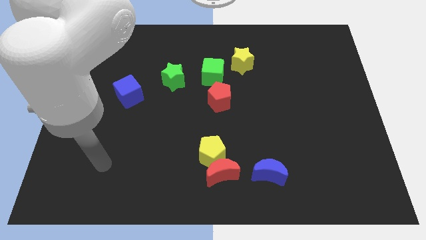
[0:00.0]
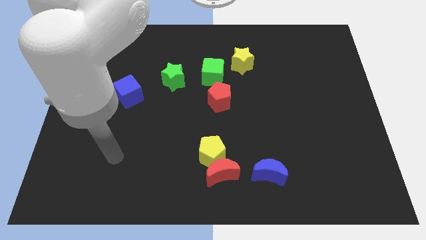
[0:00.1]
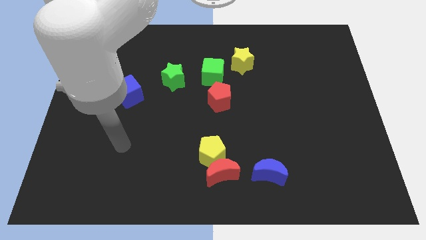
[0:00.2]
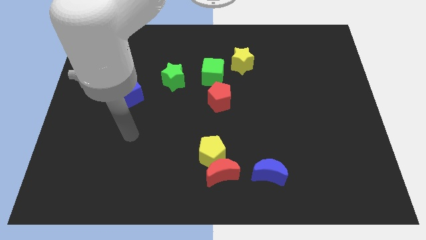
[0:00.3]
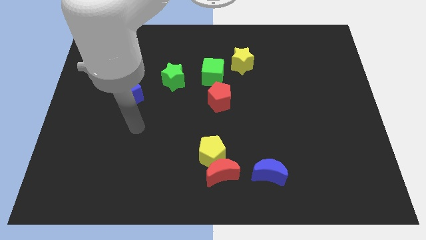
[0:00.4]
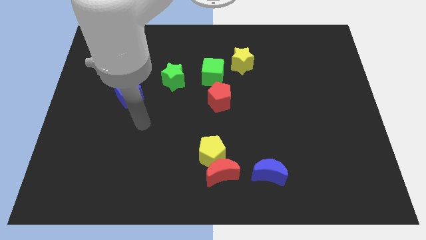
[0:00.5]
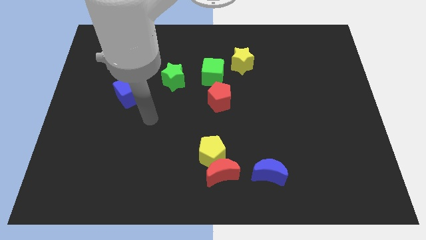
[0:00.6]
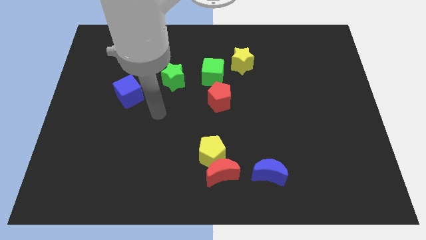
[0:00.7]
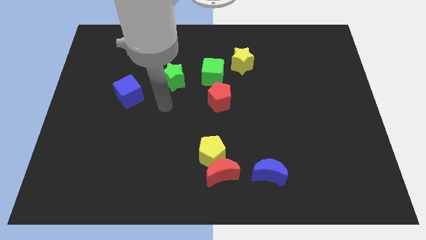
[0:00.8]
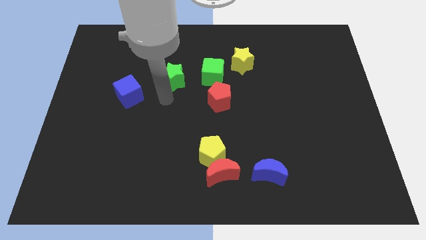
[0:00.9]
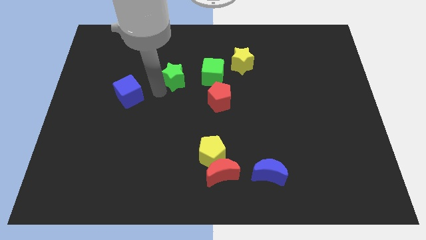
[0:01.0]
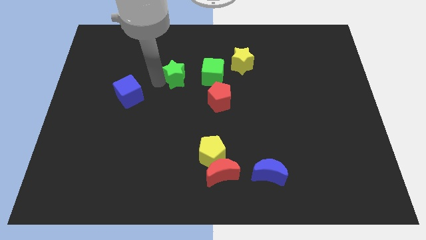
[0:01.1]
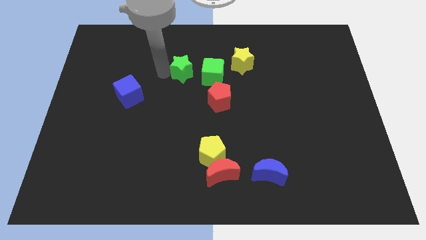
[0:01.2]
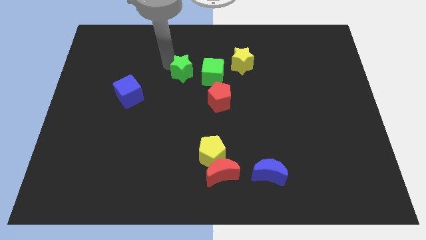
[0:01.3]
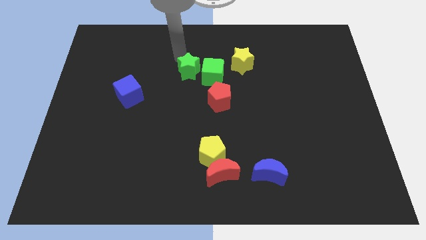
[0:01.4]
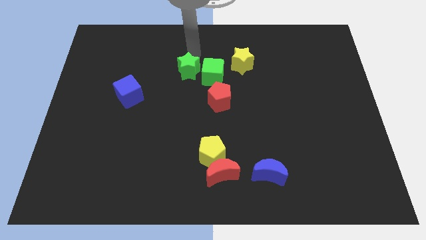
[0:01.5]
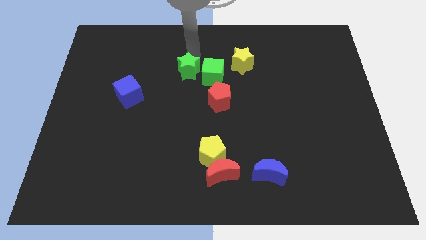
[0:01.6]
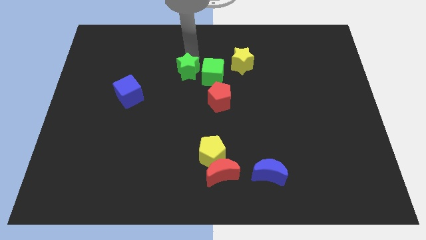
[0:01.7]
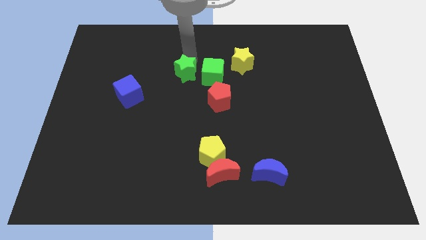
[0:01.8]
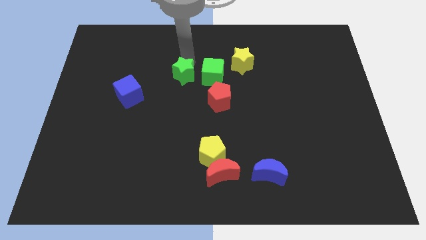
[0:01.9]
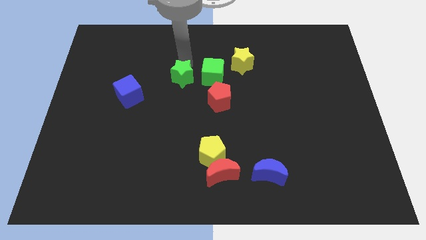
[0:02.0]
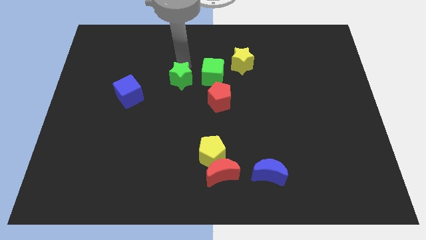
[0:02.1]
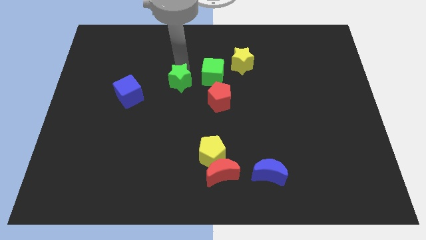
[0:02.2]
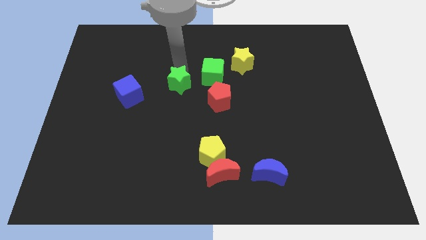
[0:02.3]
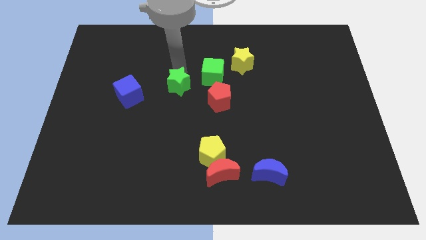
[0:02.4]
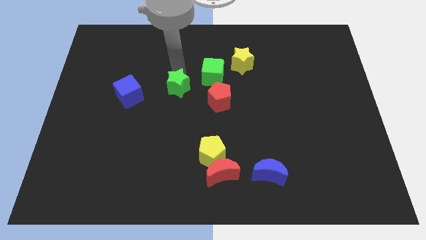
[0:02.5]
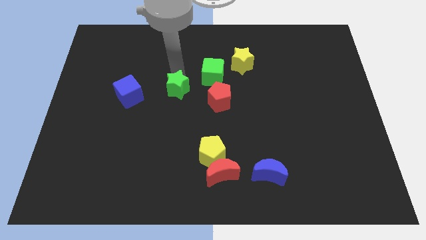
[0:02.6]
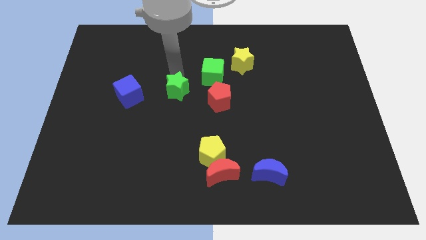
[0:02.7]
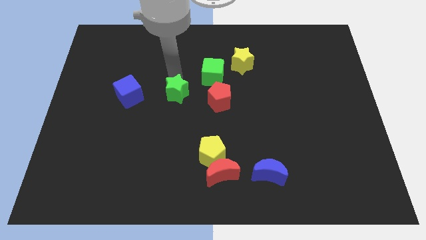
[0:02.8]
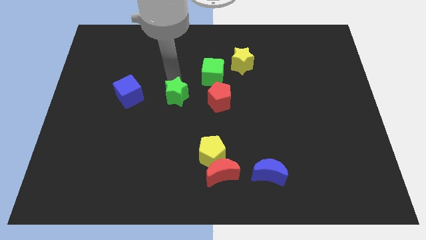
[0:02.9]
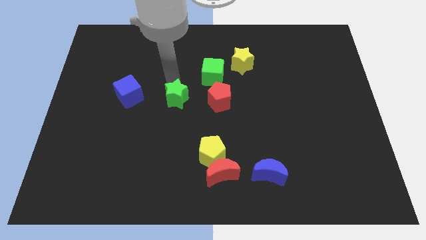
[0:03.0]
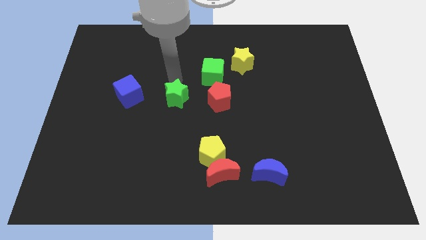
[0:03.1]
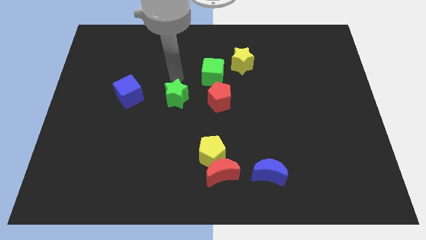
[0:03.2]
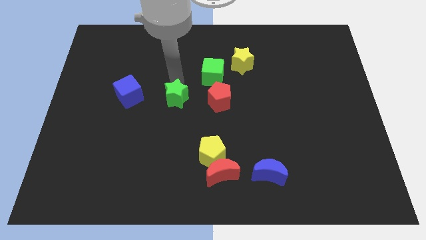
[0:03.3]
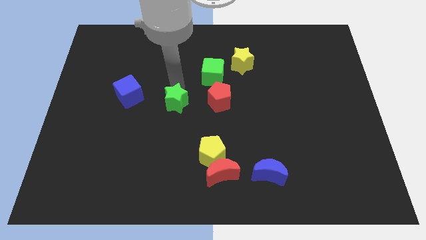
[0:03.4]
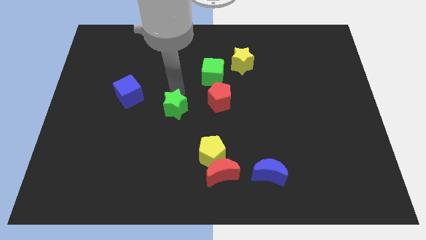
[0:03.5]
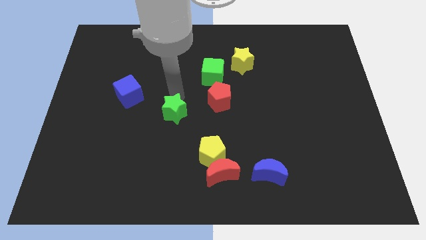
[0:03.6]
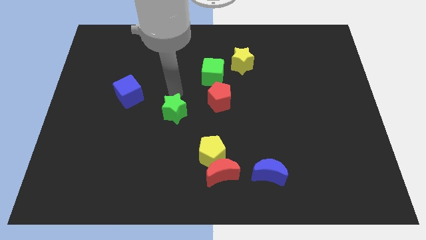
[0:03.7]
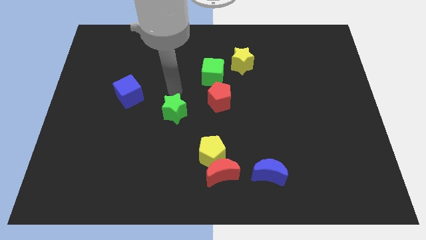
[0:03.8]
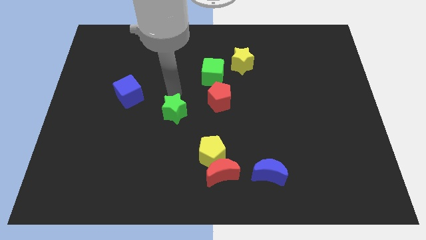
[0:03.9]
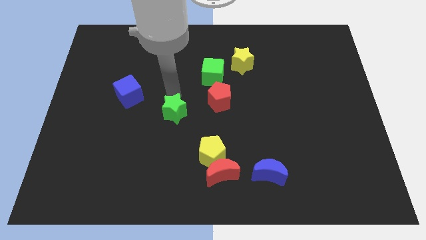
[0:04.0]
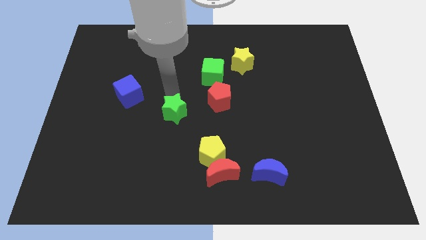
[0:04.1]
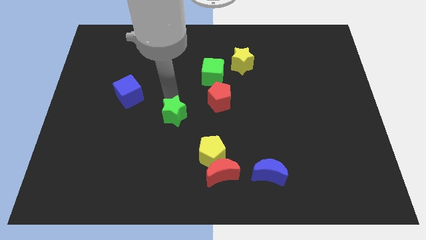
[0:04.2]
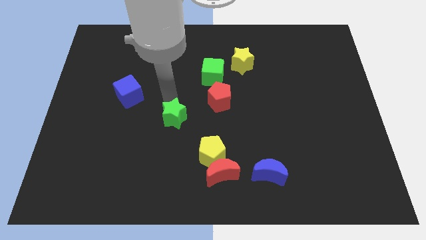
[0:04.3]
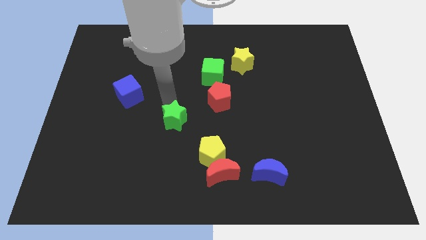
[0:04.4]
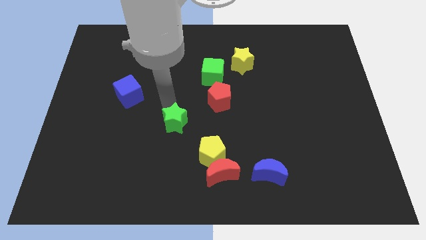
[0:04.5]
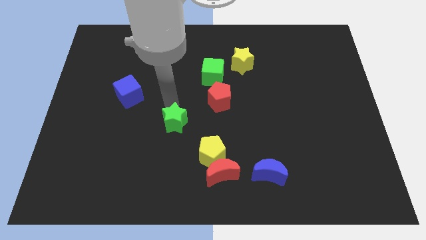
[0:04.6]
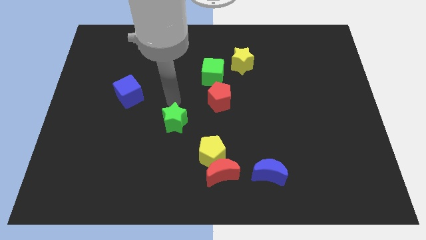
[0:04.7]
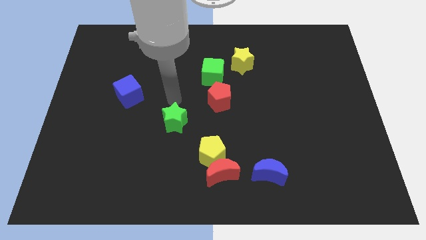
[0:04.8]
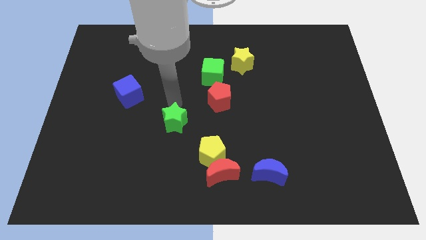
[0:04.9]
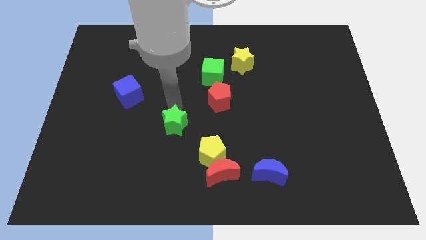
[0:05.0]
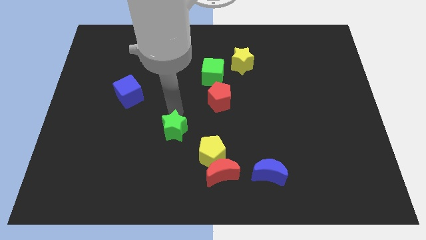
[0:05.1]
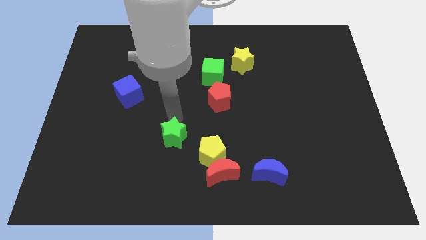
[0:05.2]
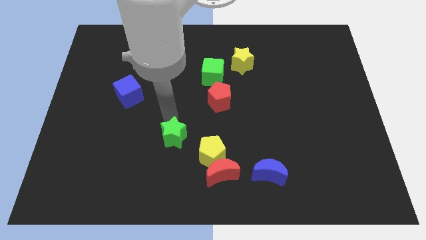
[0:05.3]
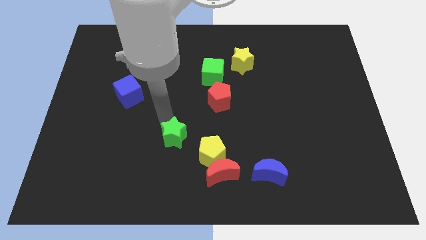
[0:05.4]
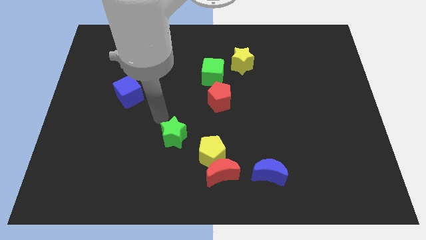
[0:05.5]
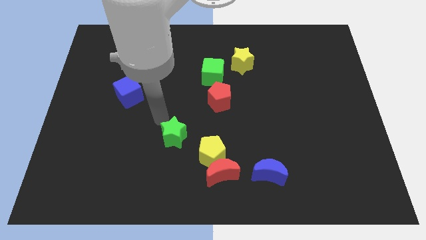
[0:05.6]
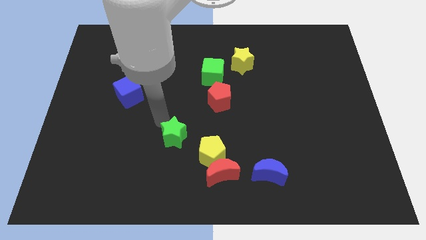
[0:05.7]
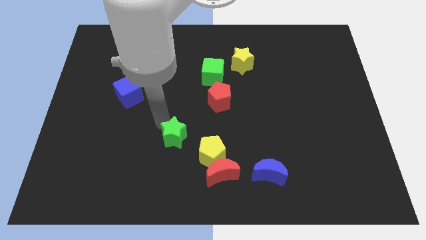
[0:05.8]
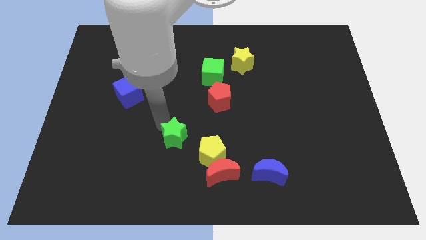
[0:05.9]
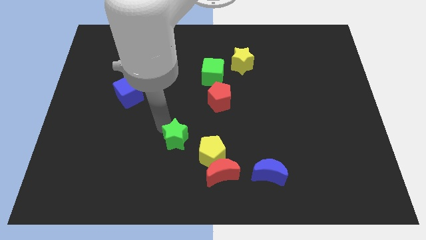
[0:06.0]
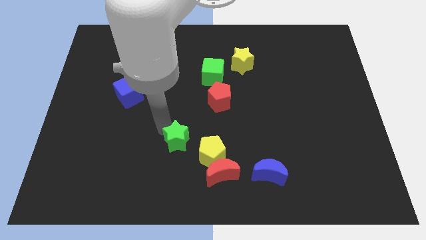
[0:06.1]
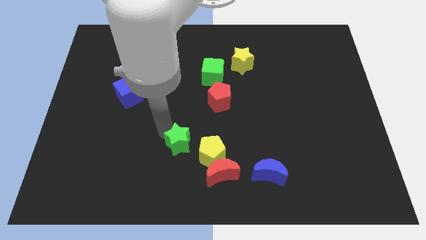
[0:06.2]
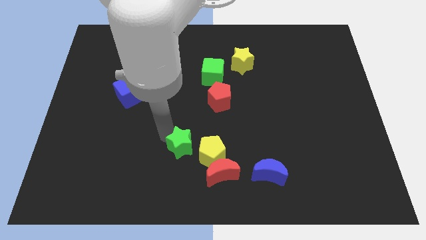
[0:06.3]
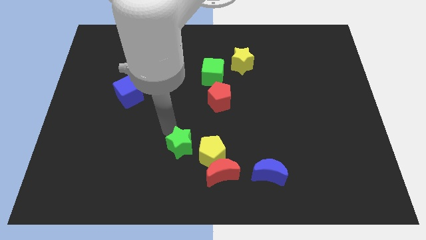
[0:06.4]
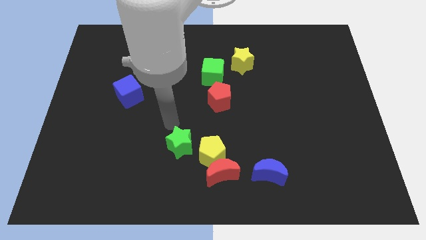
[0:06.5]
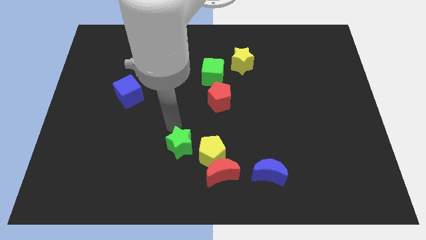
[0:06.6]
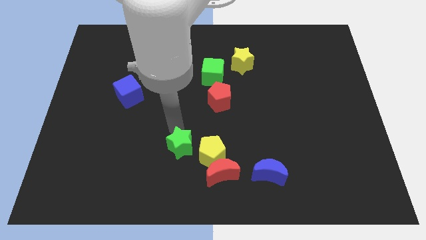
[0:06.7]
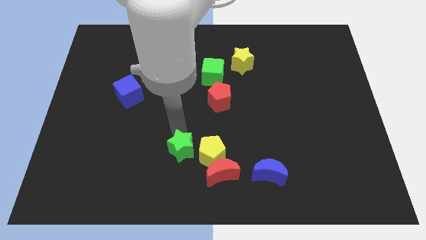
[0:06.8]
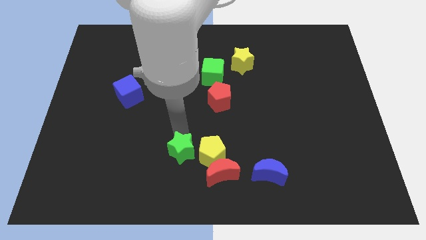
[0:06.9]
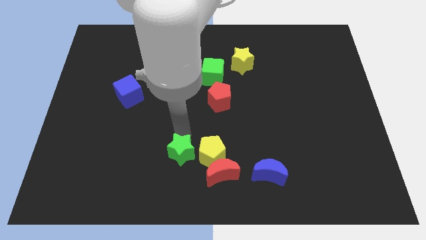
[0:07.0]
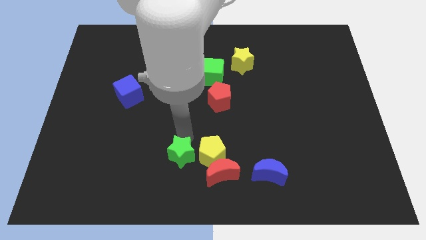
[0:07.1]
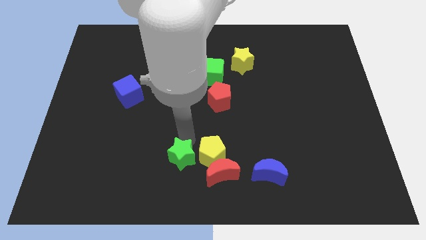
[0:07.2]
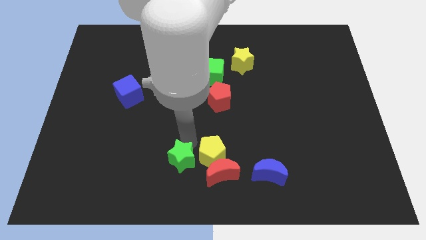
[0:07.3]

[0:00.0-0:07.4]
move the green star to the bottom side
